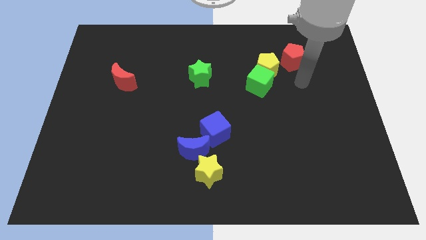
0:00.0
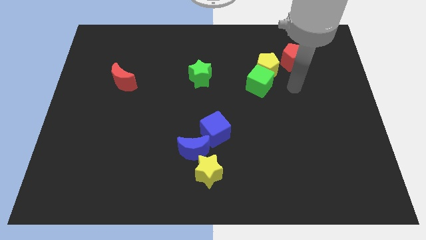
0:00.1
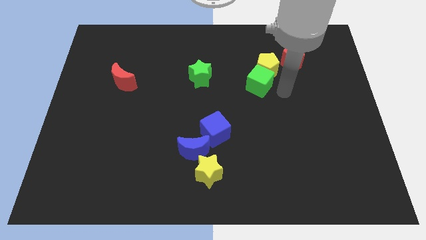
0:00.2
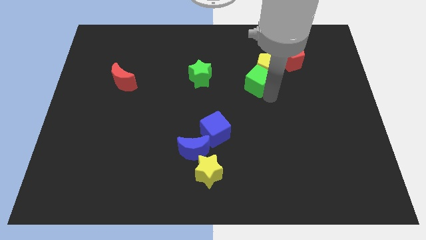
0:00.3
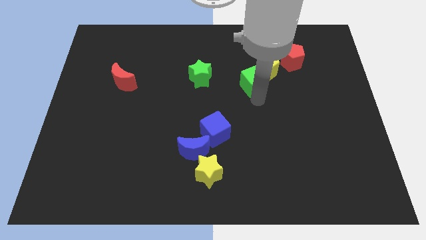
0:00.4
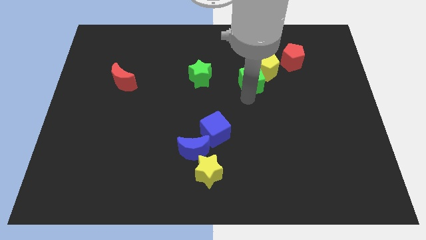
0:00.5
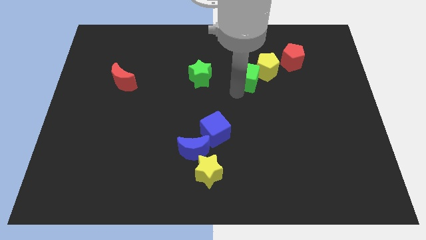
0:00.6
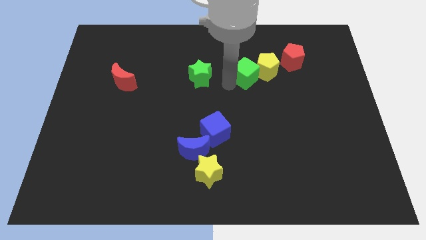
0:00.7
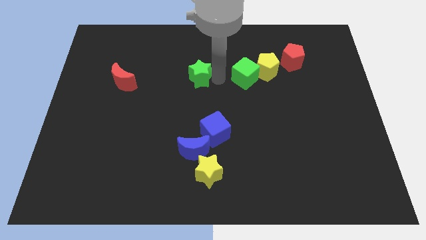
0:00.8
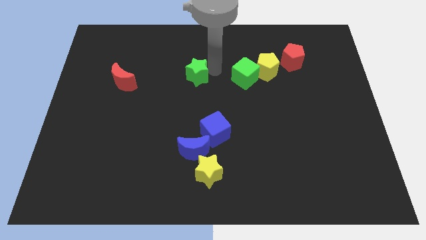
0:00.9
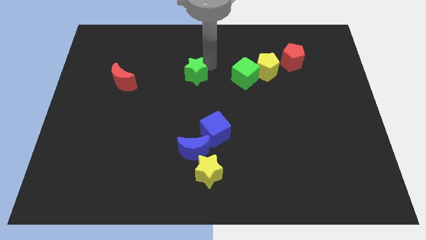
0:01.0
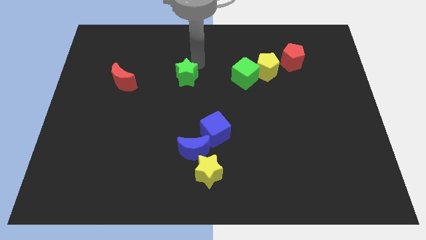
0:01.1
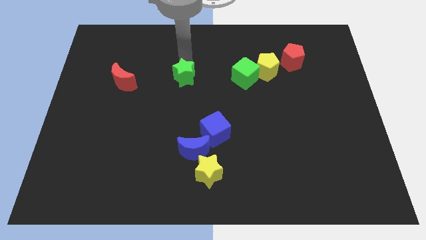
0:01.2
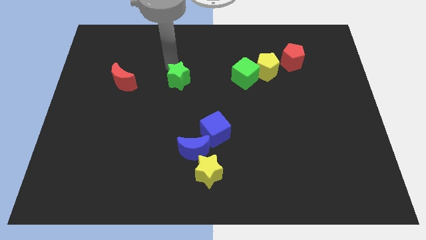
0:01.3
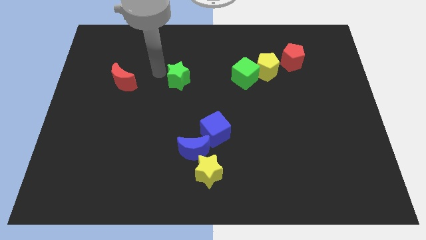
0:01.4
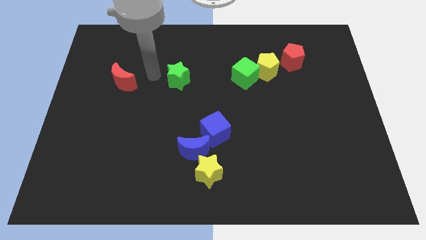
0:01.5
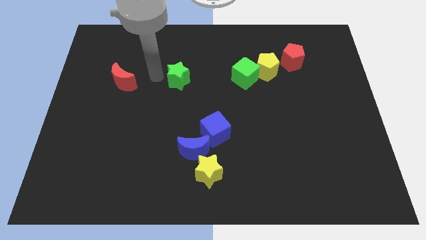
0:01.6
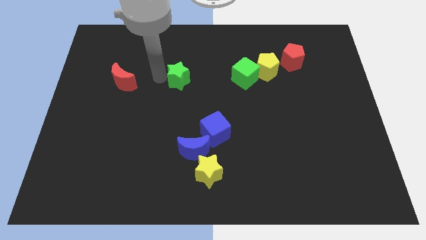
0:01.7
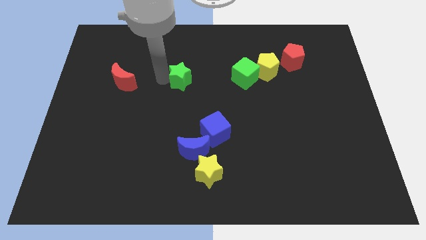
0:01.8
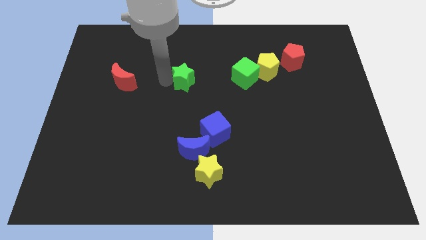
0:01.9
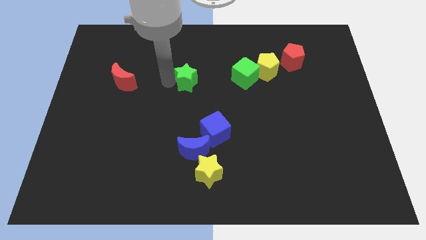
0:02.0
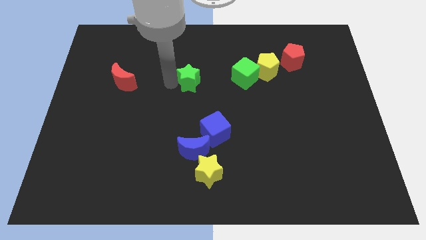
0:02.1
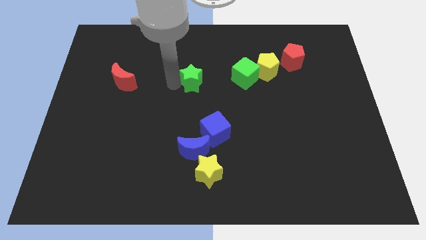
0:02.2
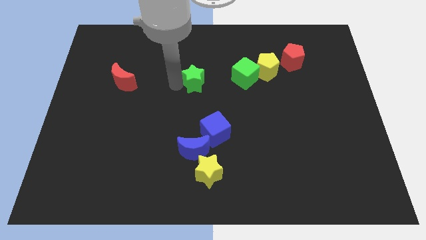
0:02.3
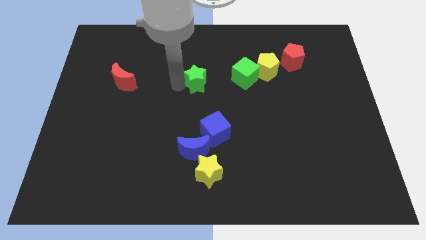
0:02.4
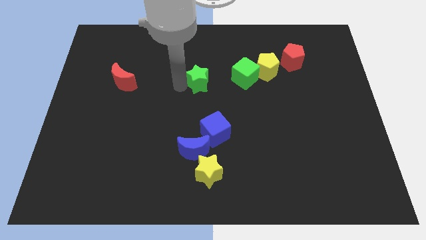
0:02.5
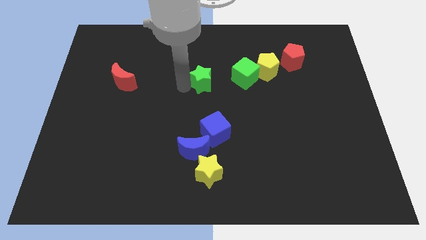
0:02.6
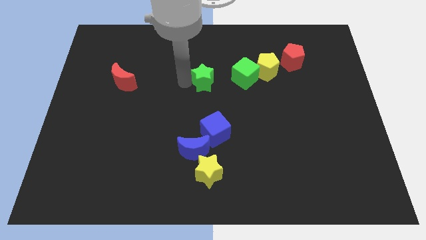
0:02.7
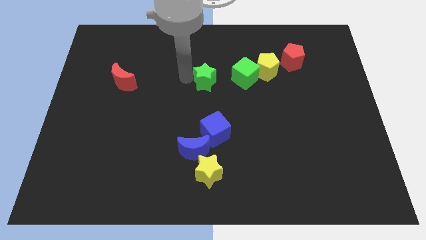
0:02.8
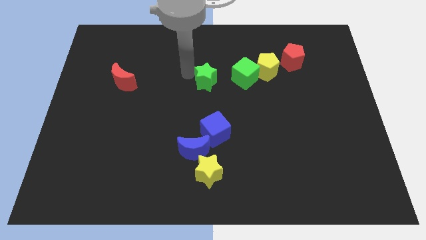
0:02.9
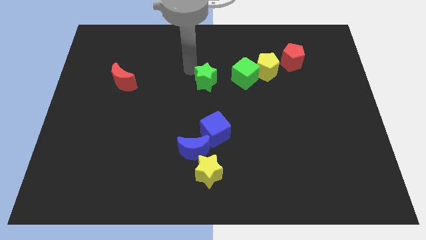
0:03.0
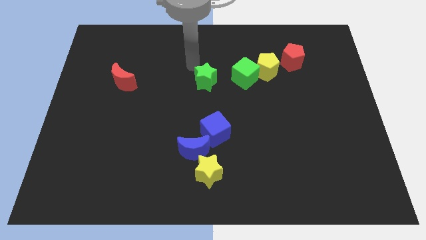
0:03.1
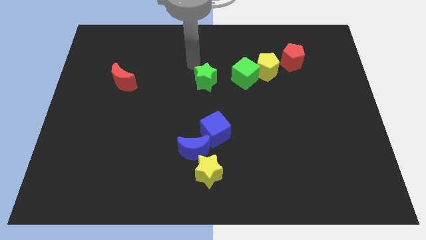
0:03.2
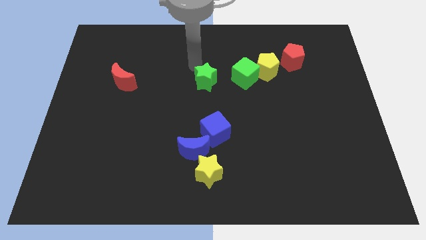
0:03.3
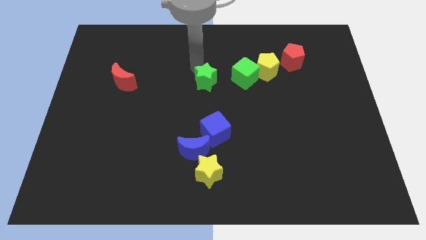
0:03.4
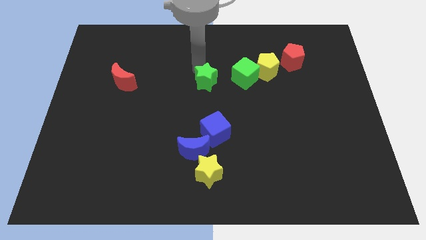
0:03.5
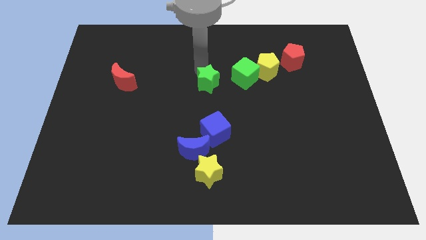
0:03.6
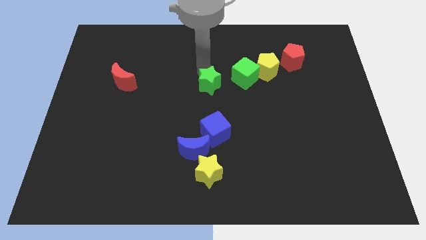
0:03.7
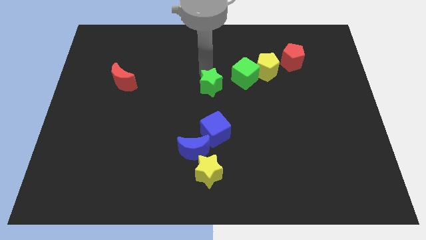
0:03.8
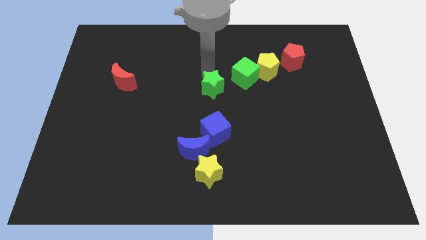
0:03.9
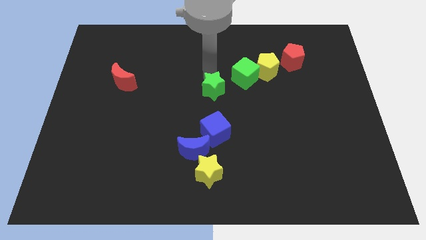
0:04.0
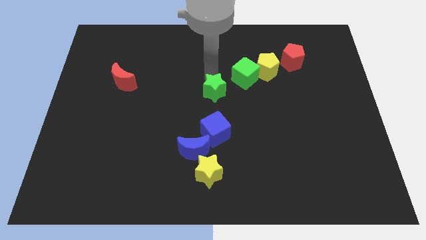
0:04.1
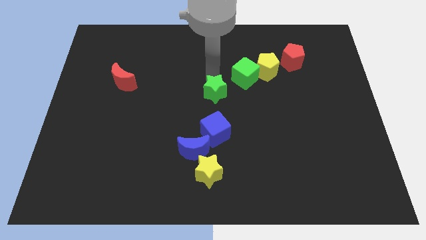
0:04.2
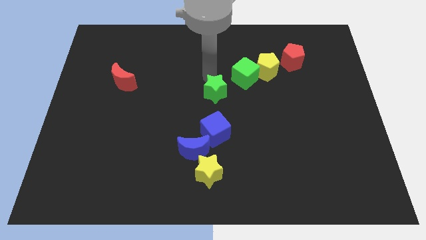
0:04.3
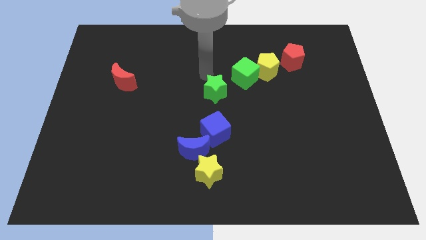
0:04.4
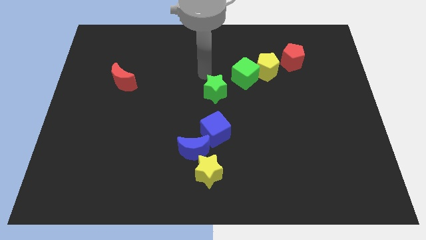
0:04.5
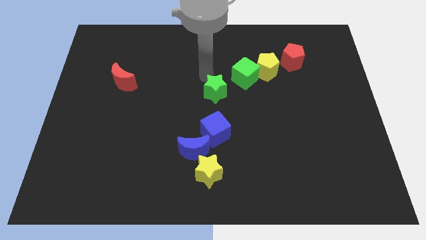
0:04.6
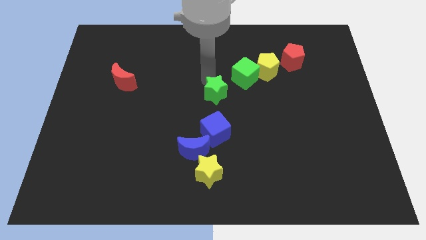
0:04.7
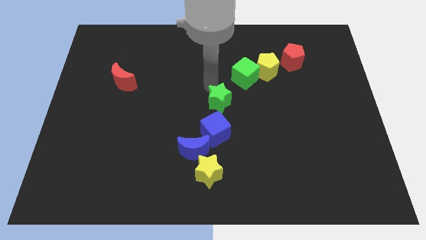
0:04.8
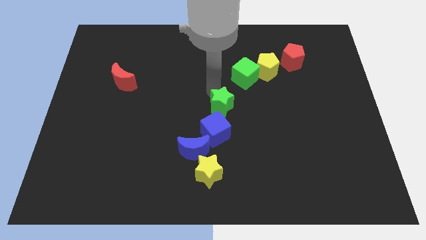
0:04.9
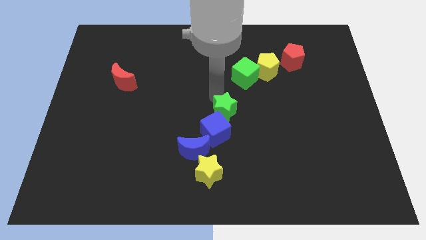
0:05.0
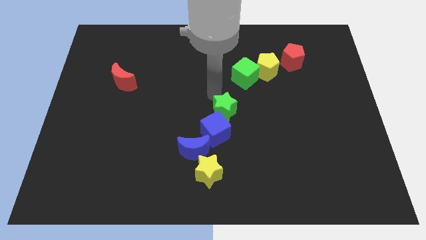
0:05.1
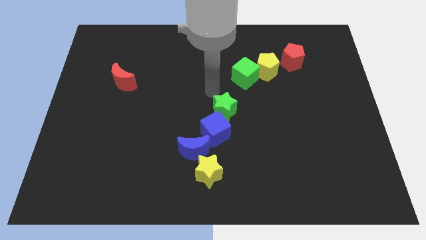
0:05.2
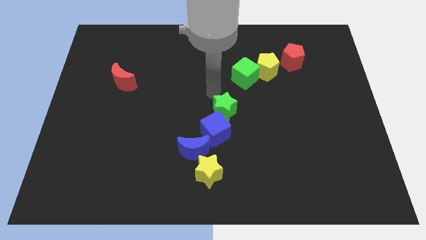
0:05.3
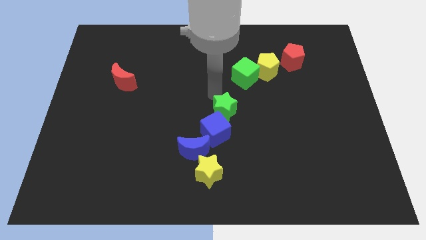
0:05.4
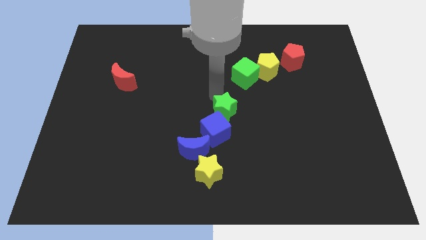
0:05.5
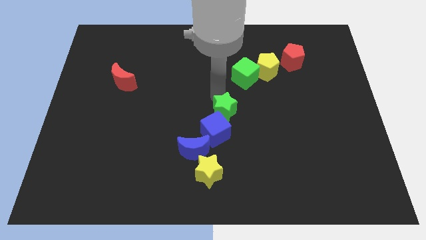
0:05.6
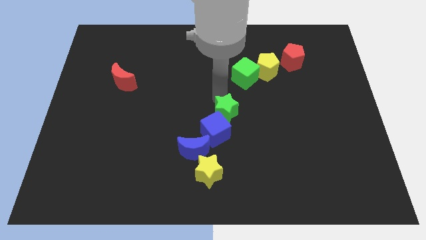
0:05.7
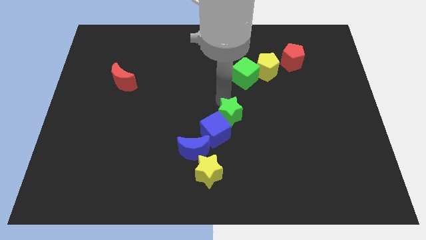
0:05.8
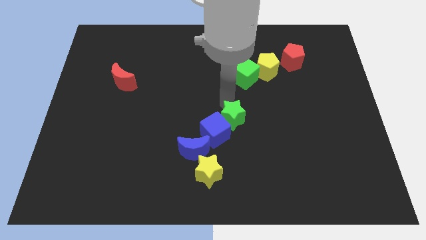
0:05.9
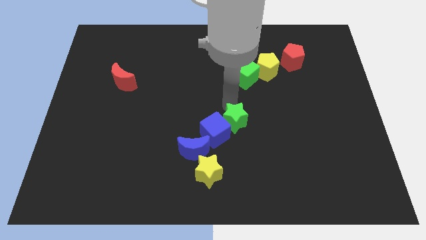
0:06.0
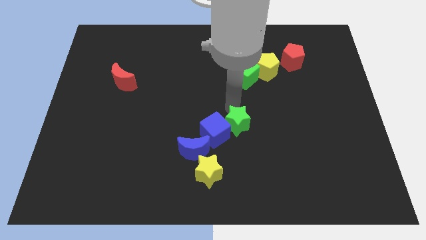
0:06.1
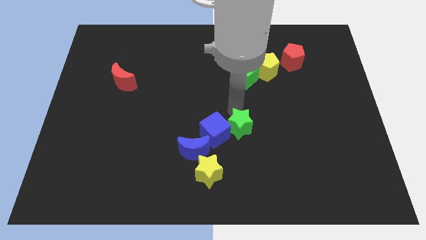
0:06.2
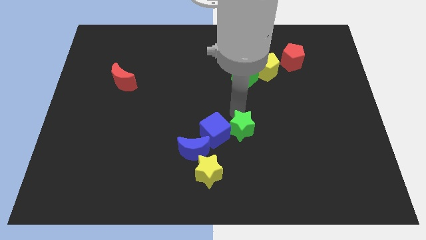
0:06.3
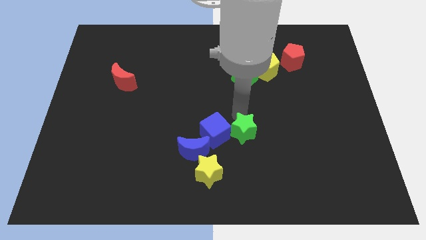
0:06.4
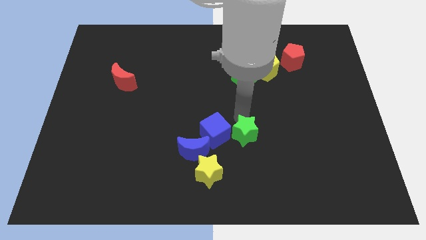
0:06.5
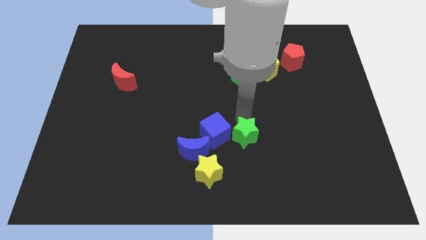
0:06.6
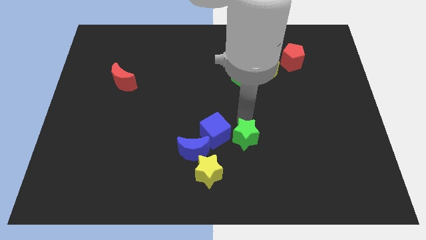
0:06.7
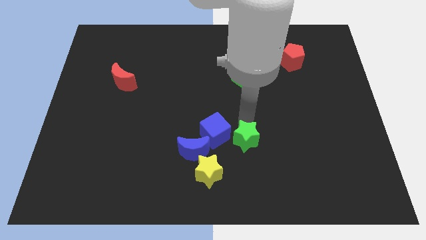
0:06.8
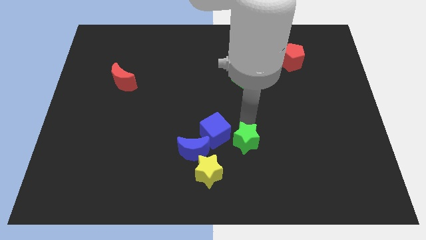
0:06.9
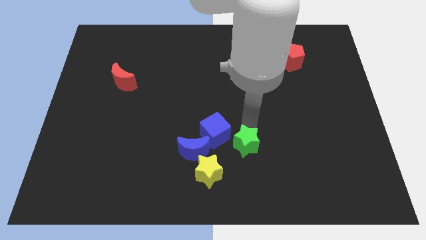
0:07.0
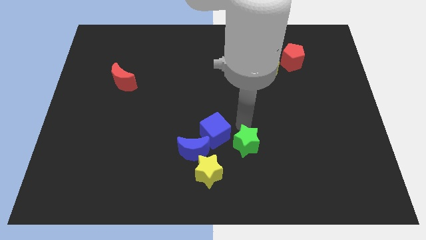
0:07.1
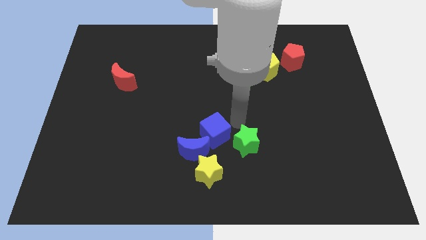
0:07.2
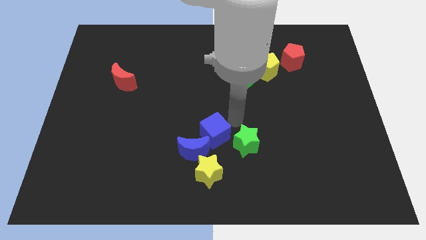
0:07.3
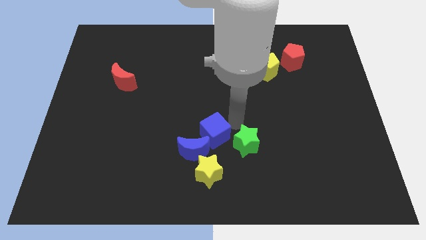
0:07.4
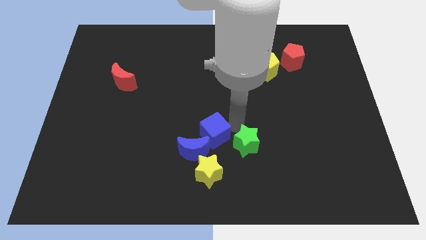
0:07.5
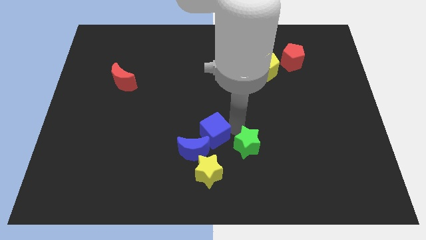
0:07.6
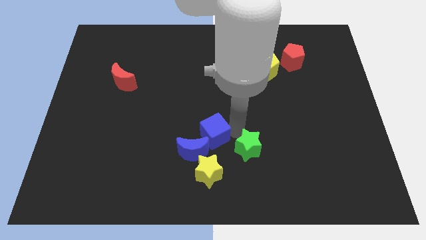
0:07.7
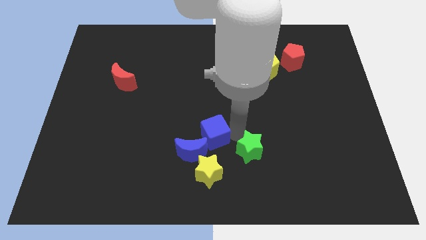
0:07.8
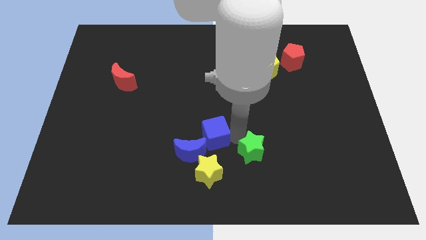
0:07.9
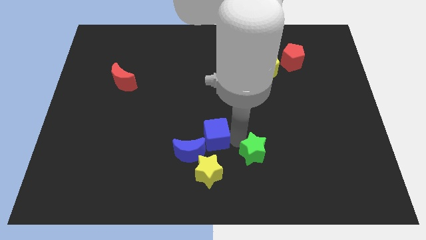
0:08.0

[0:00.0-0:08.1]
slide the green star just right of the yellow star
